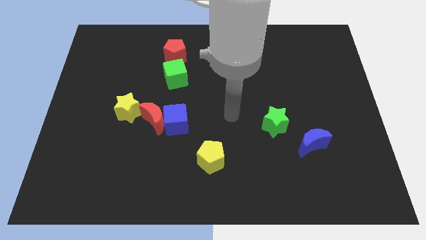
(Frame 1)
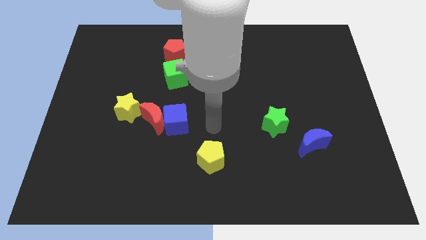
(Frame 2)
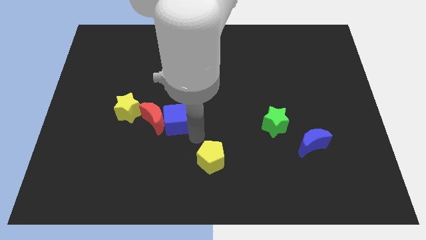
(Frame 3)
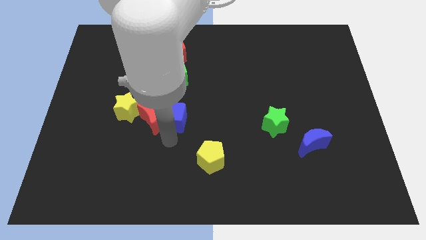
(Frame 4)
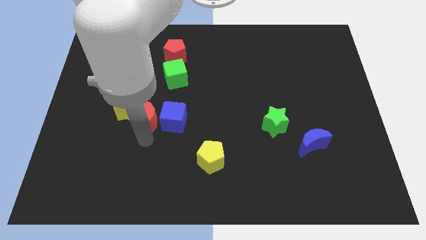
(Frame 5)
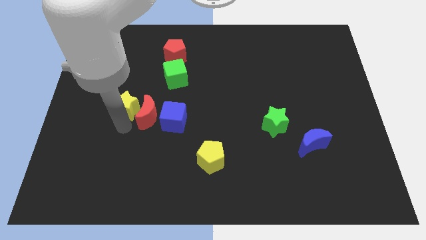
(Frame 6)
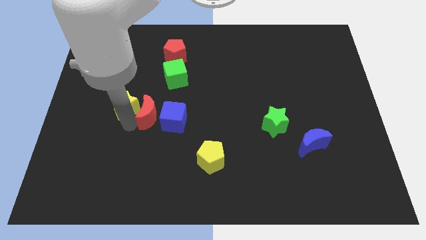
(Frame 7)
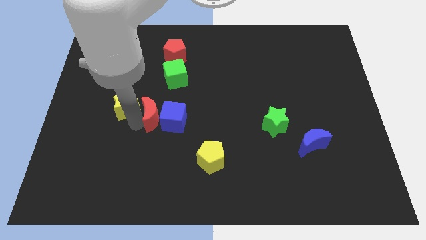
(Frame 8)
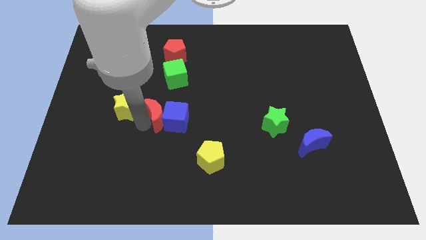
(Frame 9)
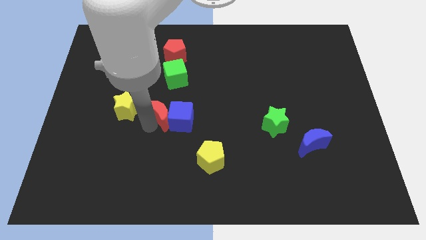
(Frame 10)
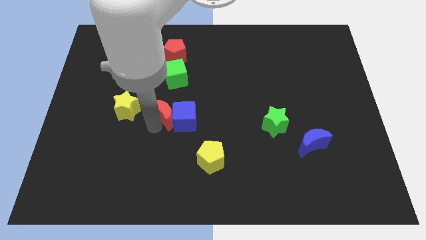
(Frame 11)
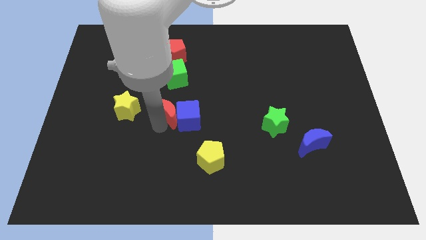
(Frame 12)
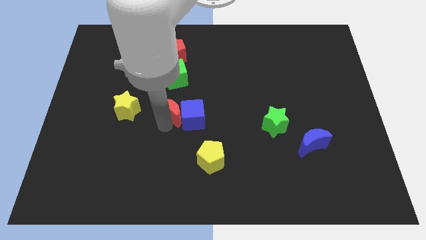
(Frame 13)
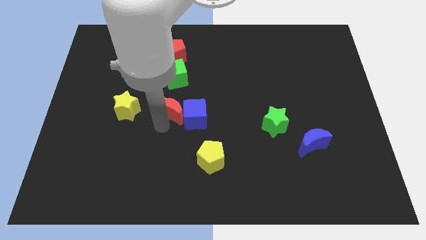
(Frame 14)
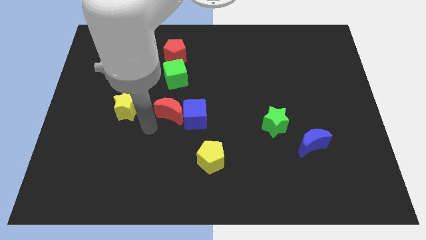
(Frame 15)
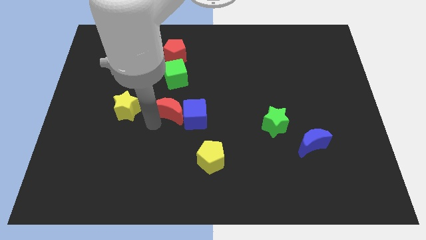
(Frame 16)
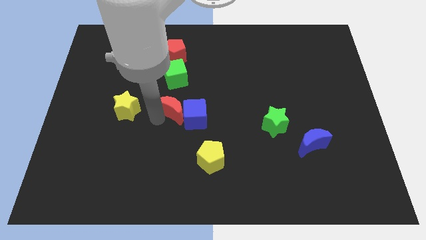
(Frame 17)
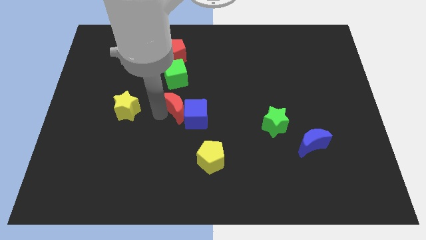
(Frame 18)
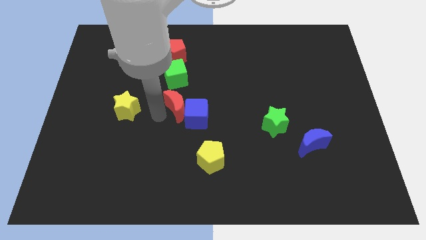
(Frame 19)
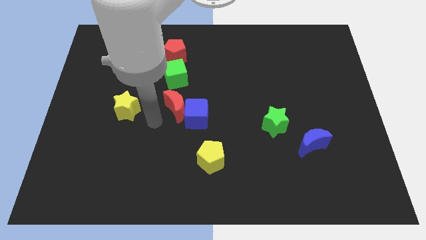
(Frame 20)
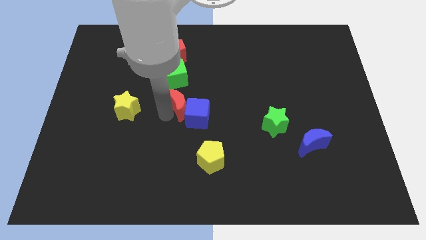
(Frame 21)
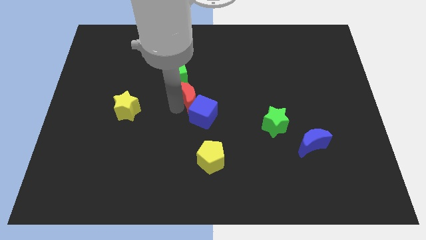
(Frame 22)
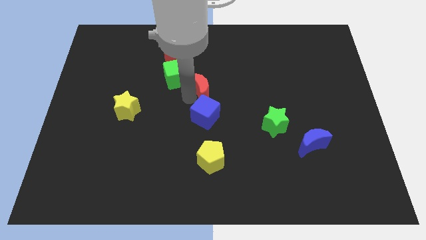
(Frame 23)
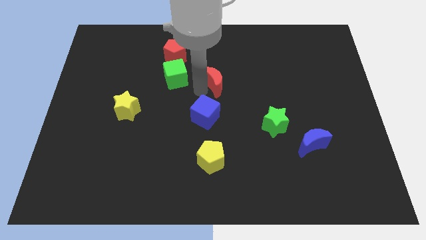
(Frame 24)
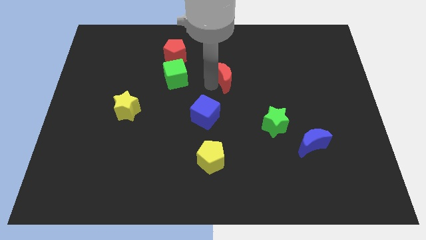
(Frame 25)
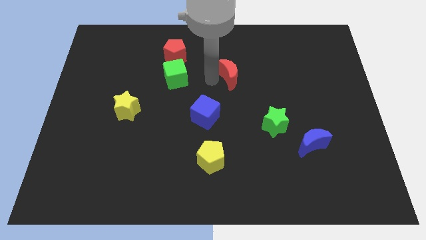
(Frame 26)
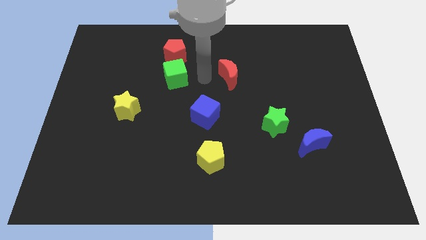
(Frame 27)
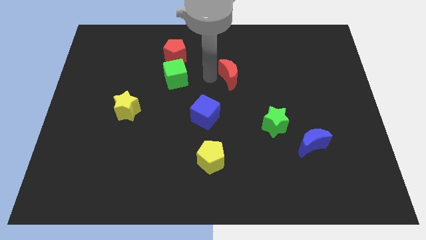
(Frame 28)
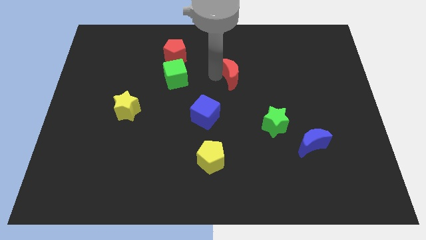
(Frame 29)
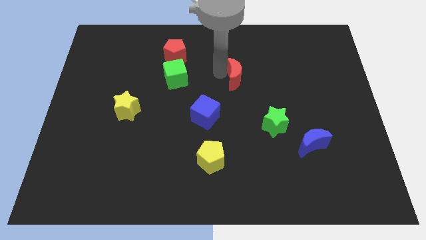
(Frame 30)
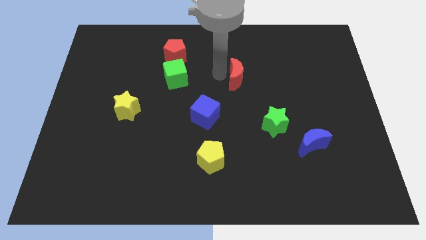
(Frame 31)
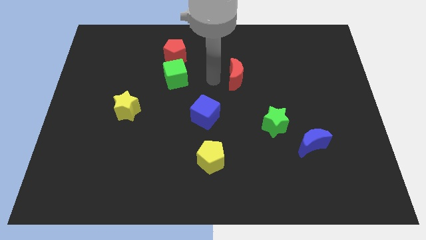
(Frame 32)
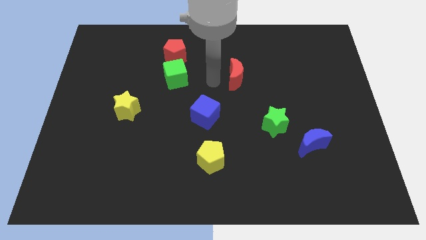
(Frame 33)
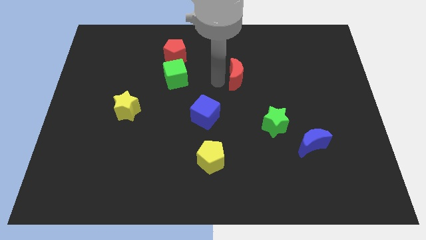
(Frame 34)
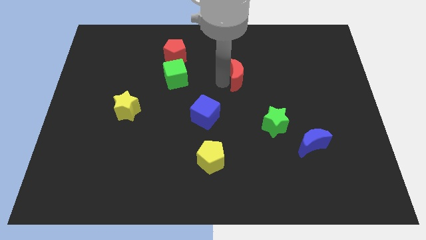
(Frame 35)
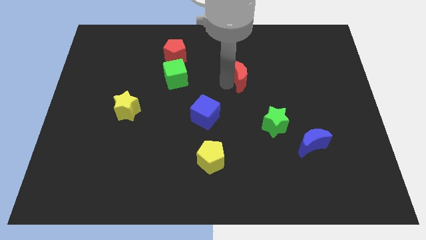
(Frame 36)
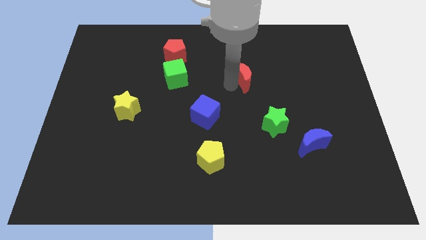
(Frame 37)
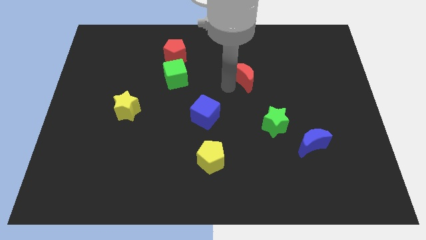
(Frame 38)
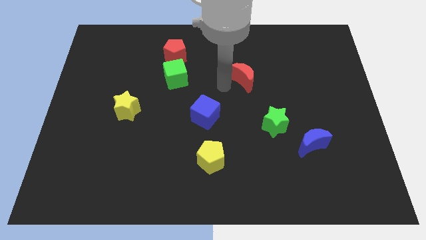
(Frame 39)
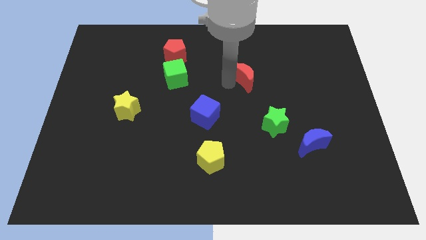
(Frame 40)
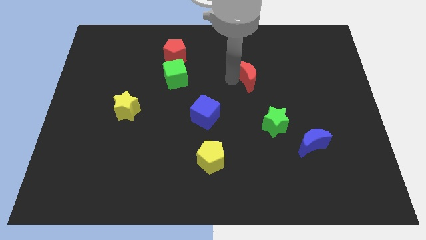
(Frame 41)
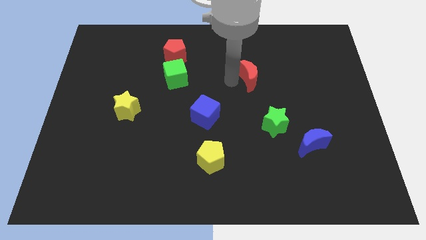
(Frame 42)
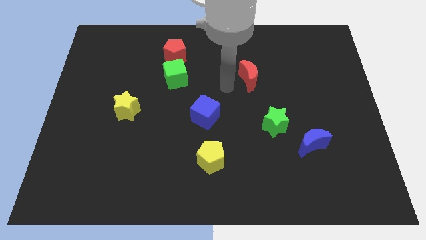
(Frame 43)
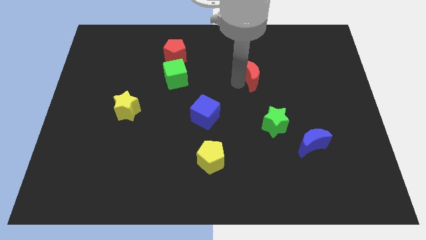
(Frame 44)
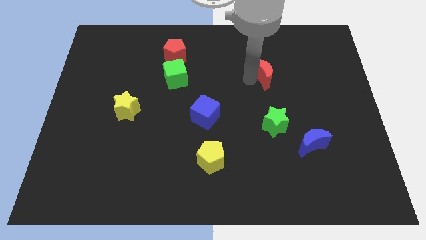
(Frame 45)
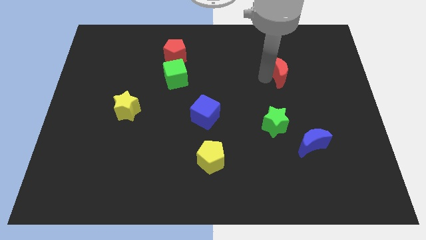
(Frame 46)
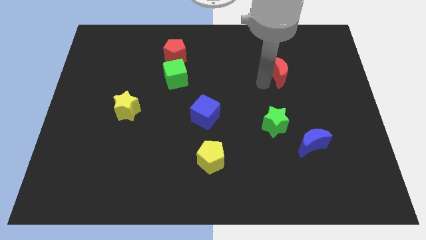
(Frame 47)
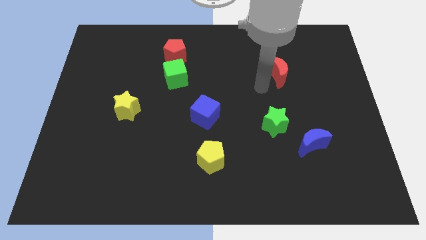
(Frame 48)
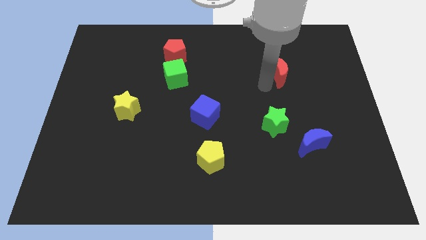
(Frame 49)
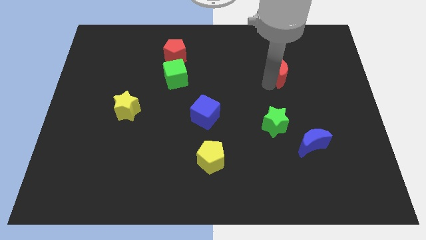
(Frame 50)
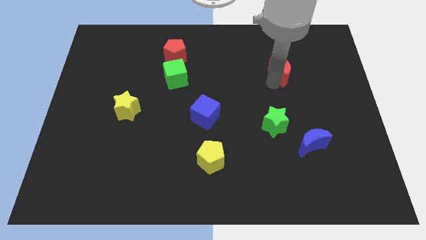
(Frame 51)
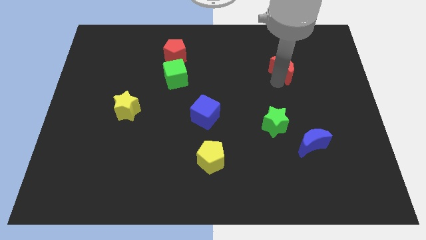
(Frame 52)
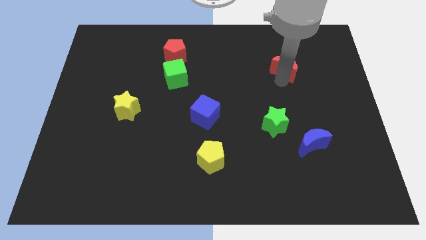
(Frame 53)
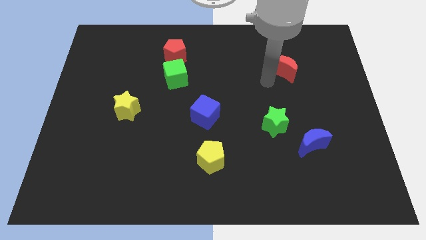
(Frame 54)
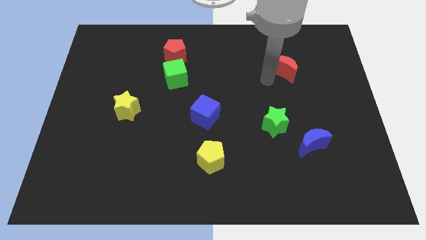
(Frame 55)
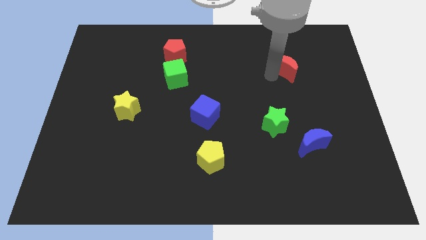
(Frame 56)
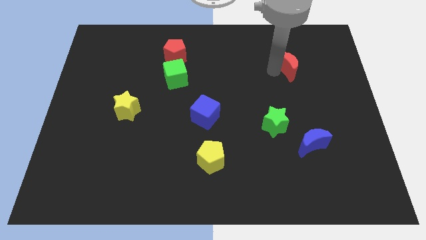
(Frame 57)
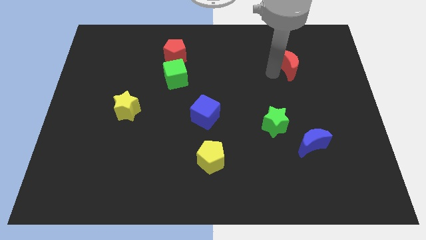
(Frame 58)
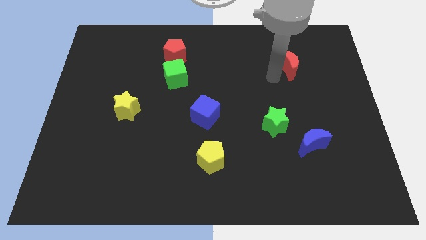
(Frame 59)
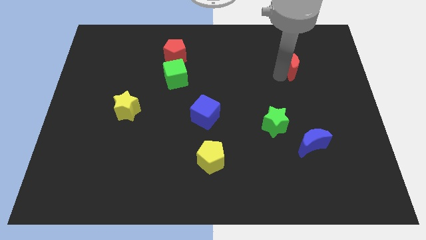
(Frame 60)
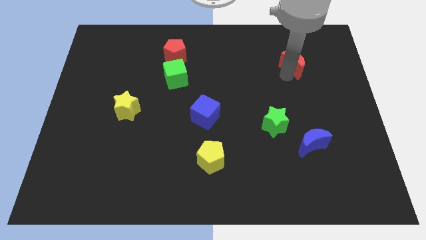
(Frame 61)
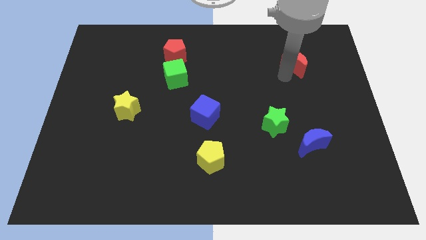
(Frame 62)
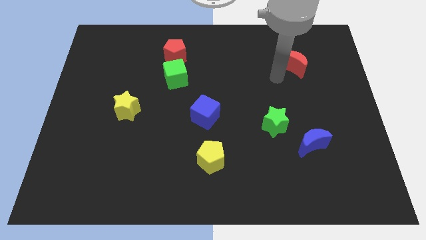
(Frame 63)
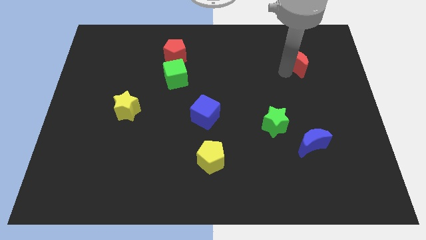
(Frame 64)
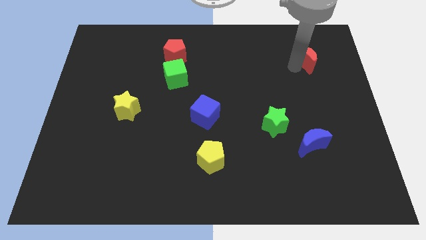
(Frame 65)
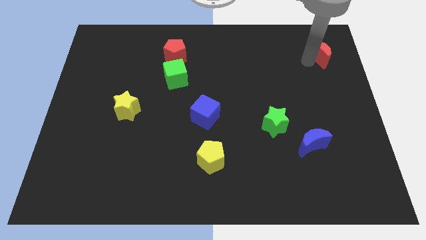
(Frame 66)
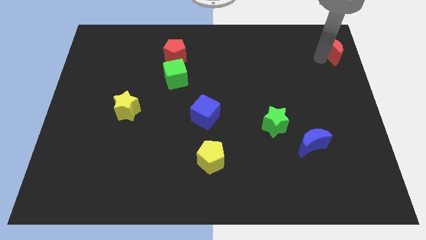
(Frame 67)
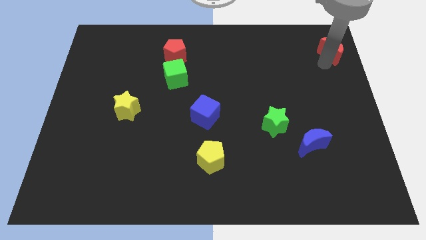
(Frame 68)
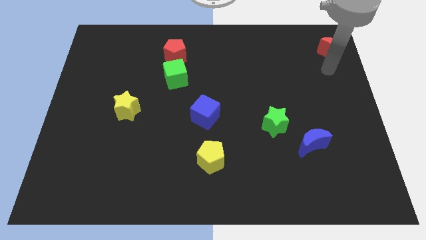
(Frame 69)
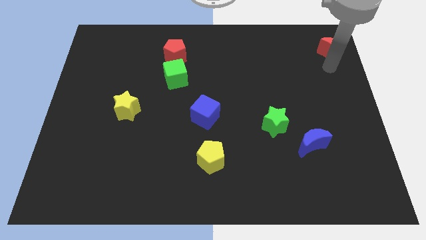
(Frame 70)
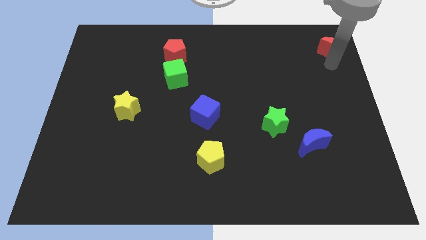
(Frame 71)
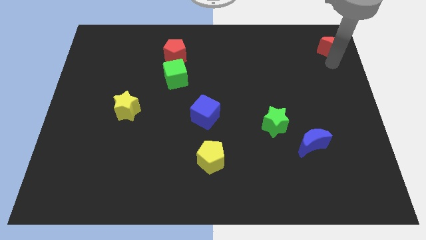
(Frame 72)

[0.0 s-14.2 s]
move the red moon to the upper right corner
